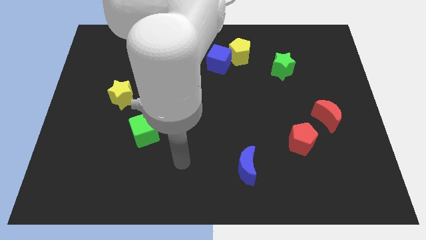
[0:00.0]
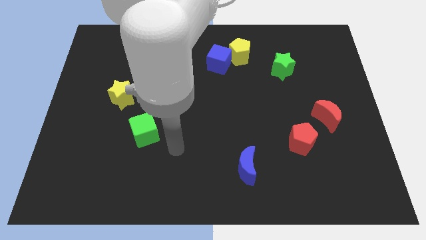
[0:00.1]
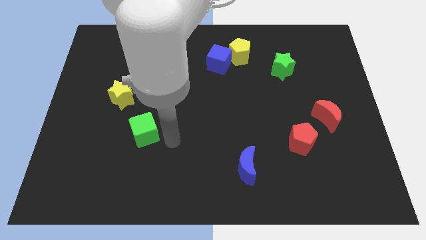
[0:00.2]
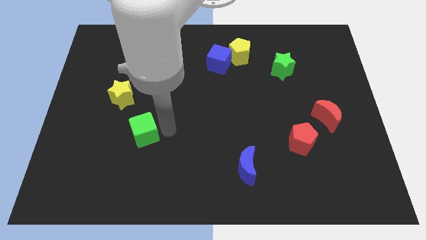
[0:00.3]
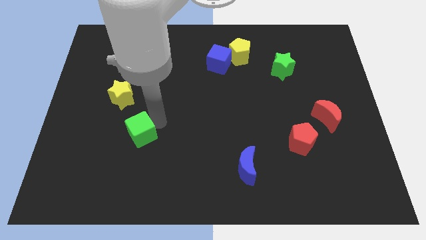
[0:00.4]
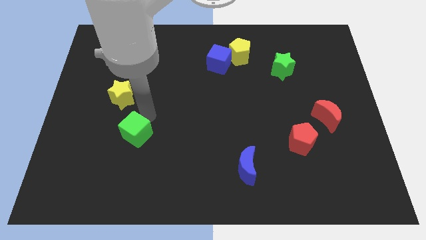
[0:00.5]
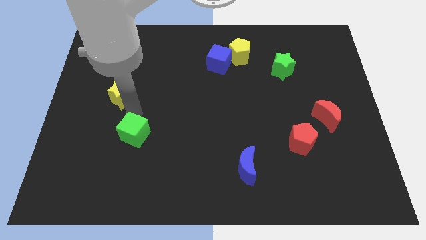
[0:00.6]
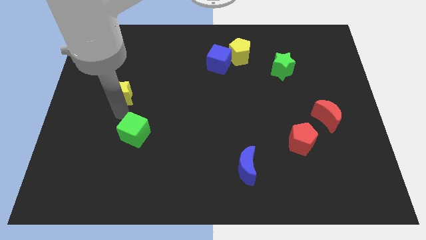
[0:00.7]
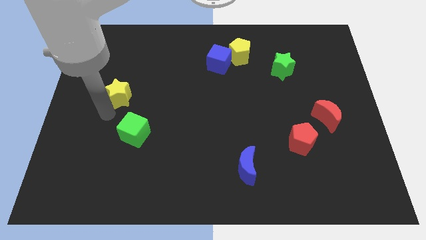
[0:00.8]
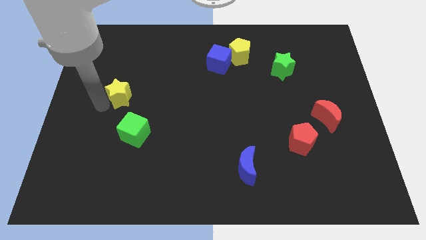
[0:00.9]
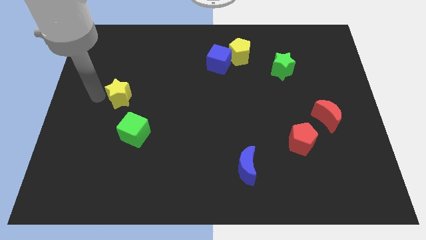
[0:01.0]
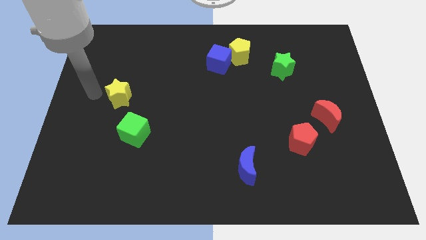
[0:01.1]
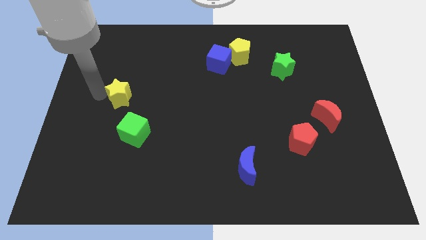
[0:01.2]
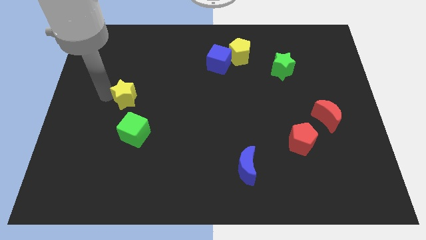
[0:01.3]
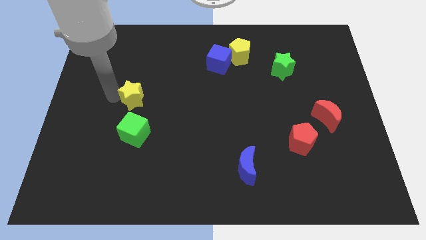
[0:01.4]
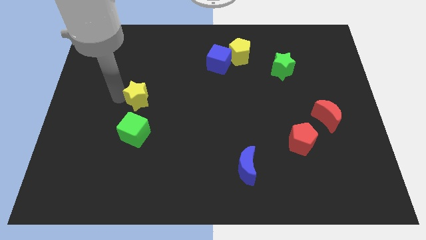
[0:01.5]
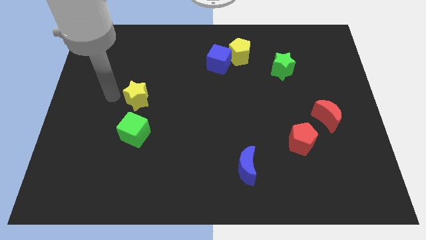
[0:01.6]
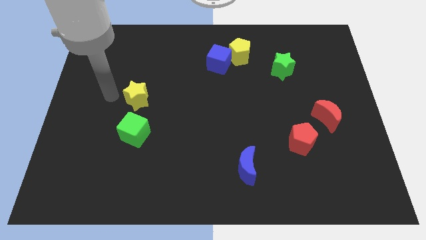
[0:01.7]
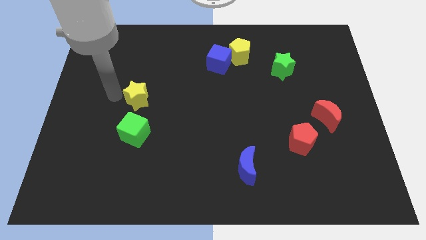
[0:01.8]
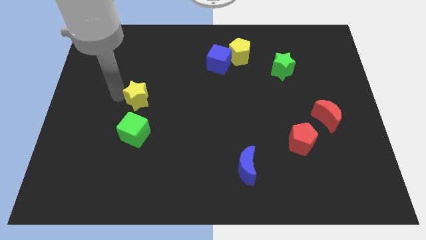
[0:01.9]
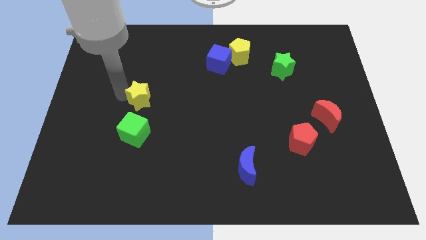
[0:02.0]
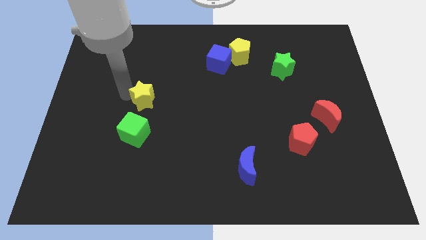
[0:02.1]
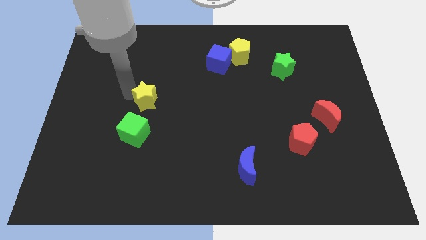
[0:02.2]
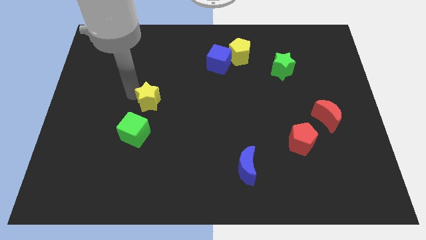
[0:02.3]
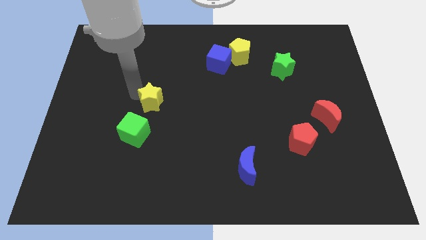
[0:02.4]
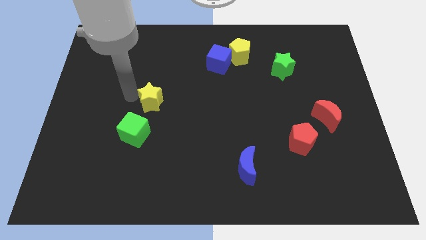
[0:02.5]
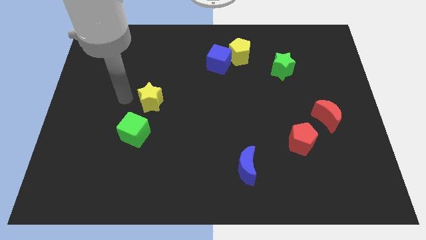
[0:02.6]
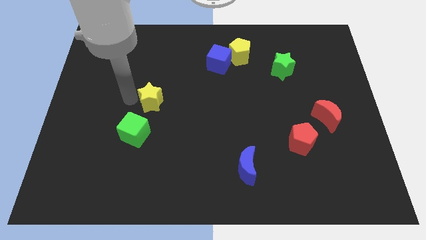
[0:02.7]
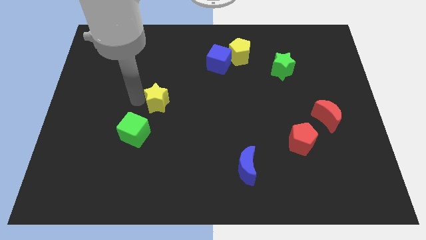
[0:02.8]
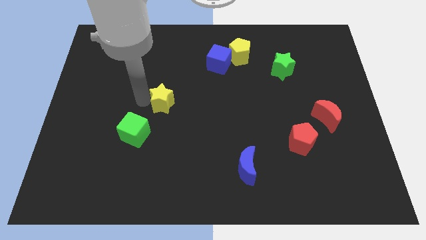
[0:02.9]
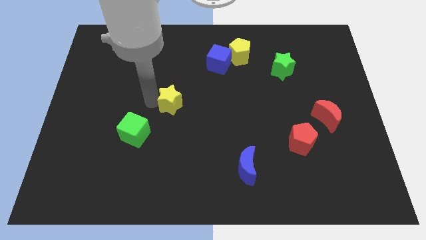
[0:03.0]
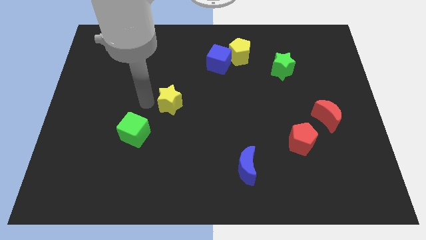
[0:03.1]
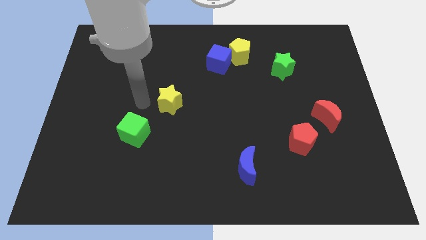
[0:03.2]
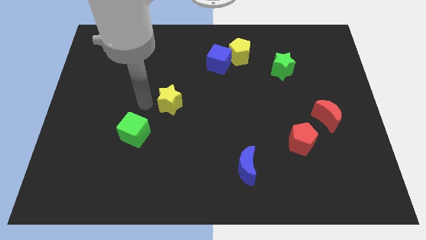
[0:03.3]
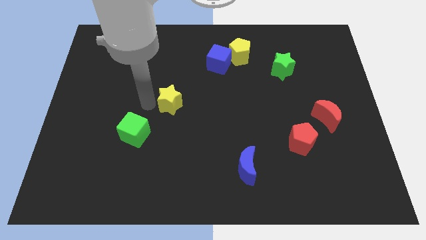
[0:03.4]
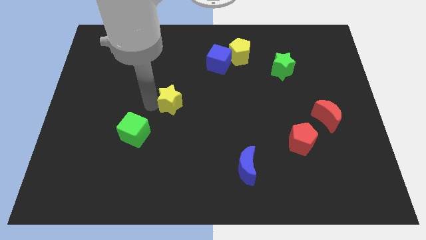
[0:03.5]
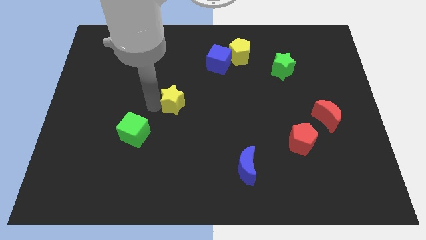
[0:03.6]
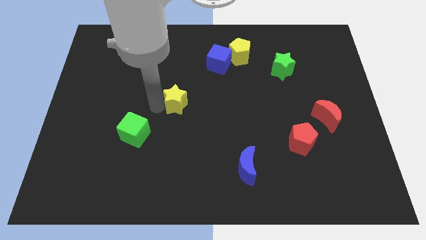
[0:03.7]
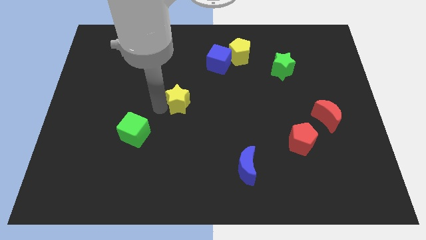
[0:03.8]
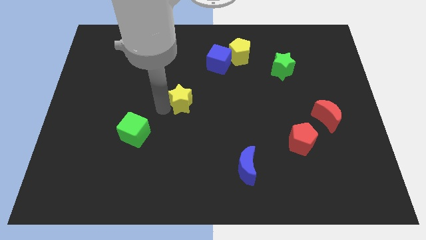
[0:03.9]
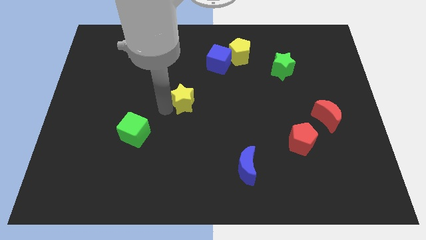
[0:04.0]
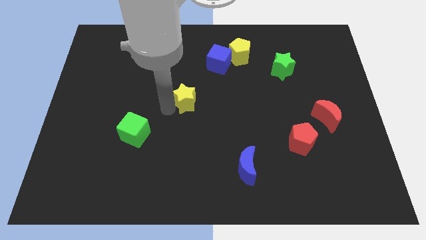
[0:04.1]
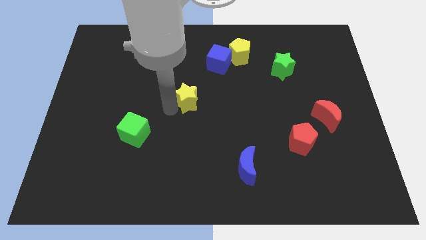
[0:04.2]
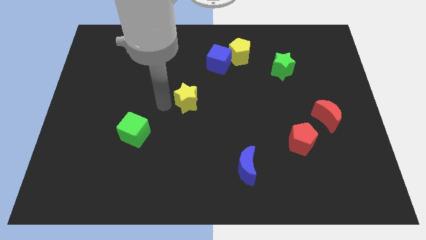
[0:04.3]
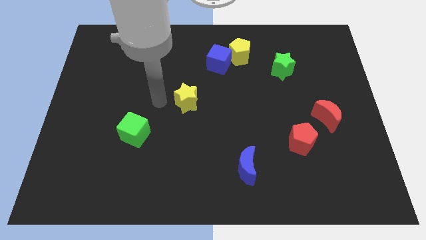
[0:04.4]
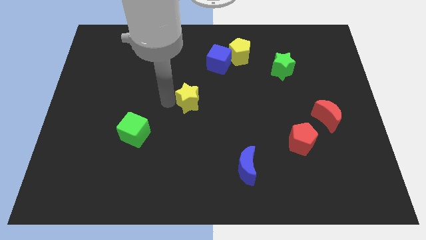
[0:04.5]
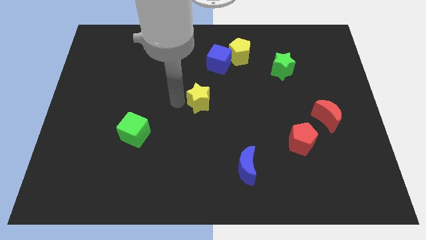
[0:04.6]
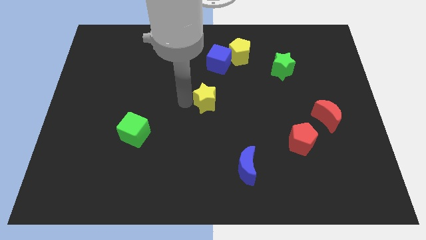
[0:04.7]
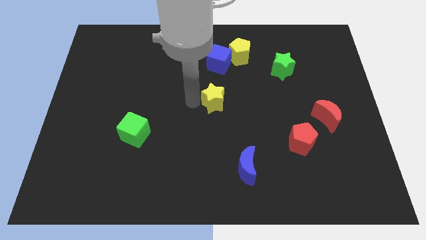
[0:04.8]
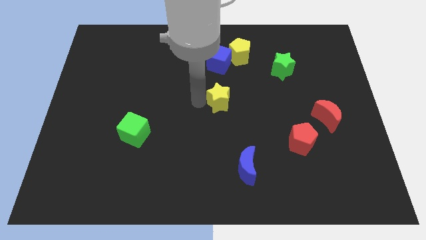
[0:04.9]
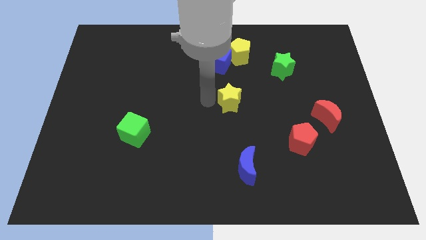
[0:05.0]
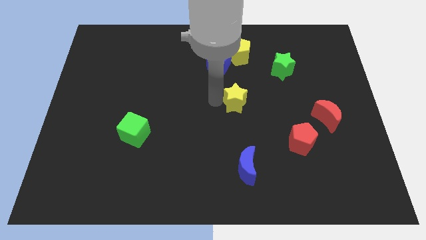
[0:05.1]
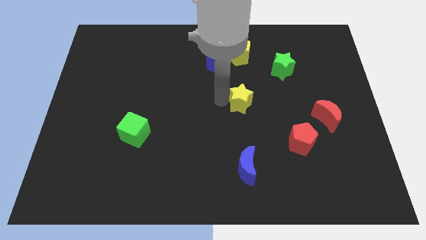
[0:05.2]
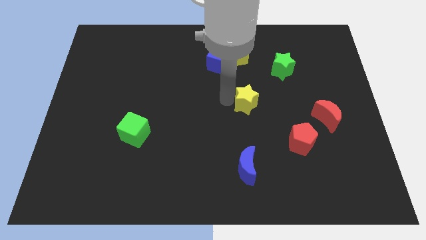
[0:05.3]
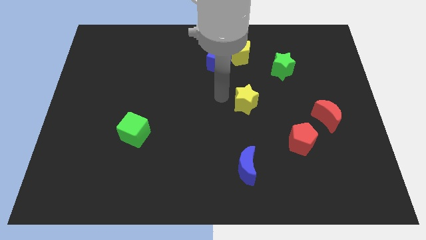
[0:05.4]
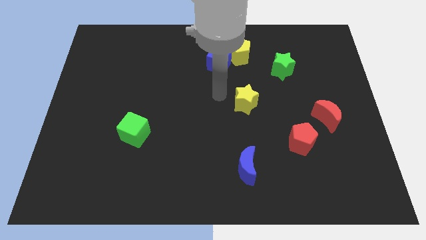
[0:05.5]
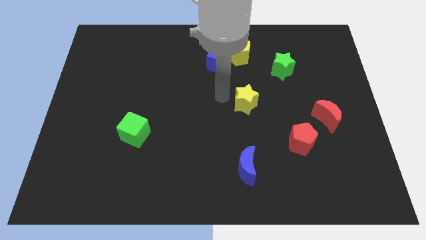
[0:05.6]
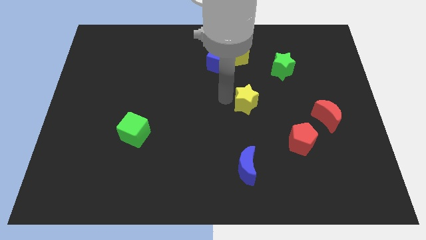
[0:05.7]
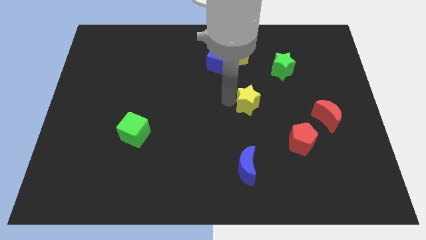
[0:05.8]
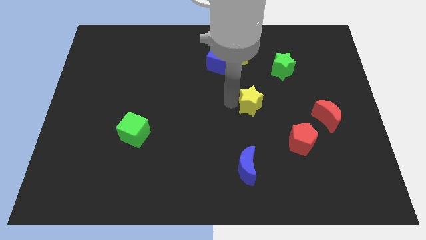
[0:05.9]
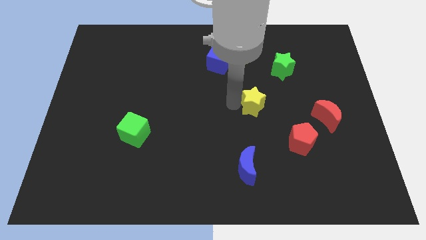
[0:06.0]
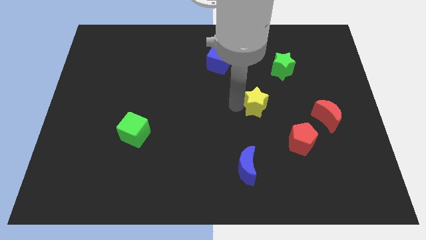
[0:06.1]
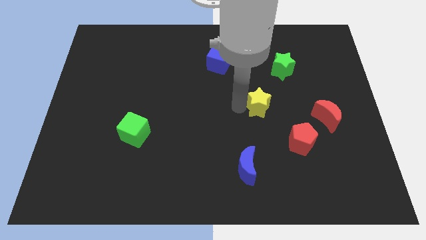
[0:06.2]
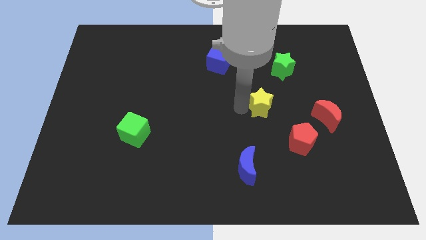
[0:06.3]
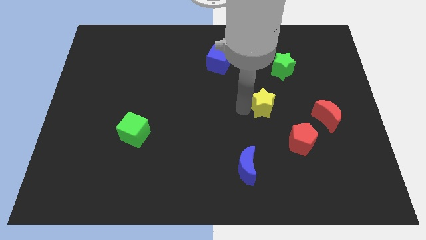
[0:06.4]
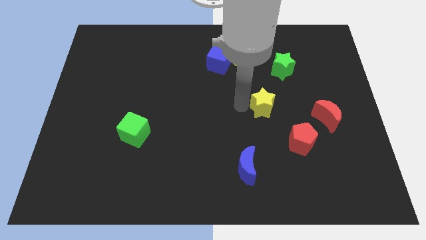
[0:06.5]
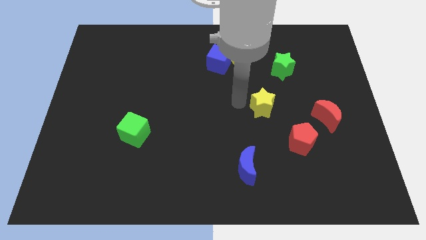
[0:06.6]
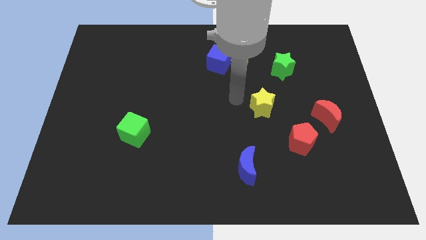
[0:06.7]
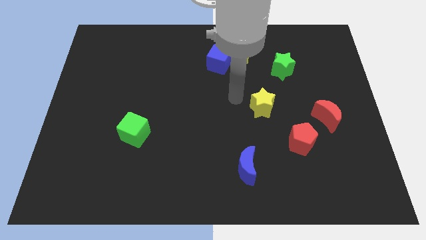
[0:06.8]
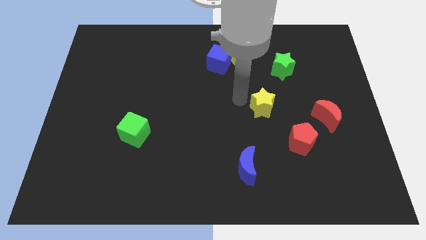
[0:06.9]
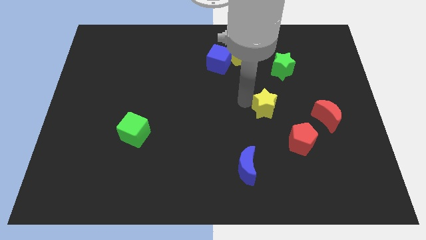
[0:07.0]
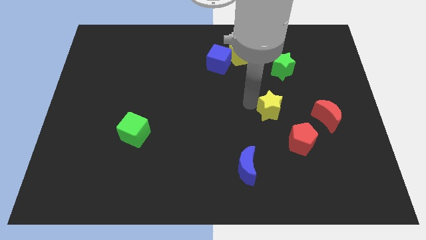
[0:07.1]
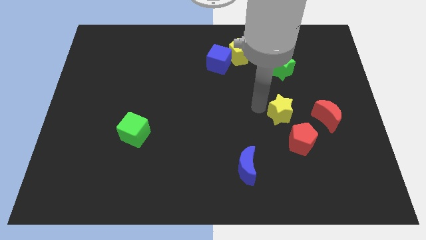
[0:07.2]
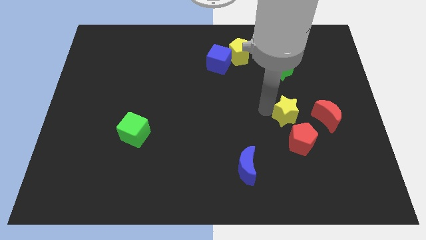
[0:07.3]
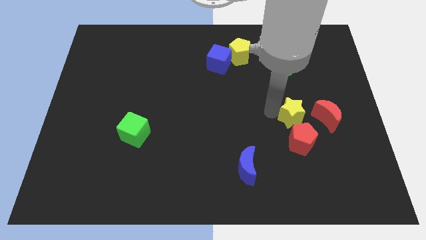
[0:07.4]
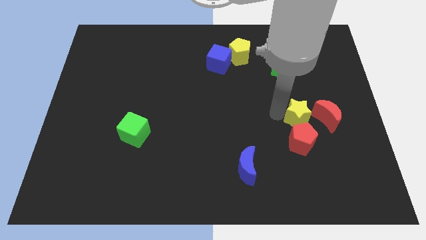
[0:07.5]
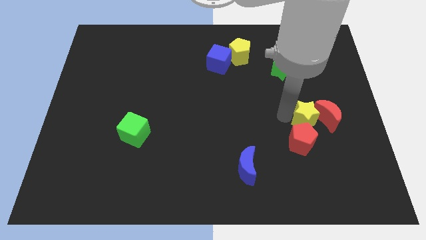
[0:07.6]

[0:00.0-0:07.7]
put the yellow star next to the red moon
